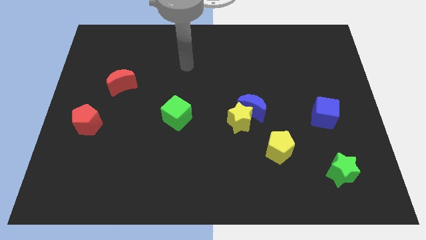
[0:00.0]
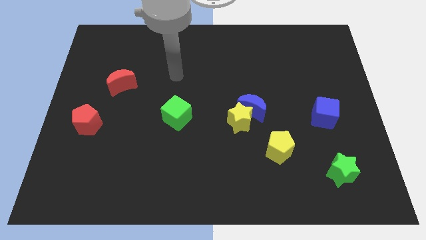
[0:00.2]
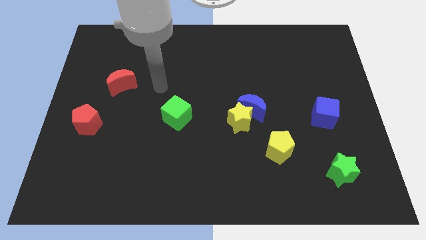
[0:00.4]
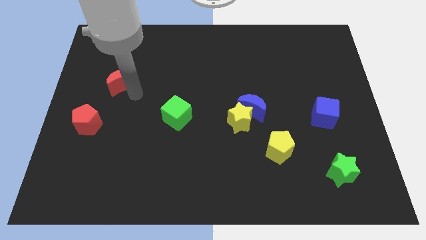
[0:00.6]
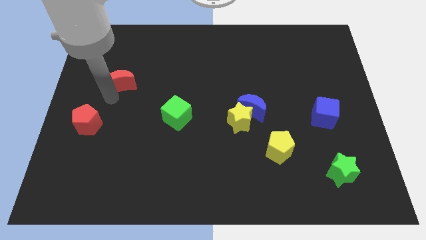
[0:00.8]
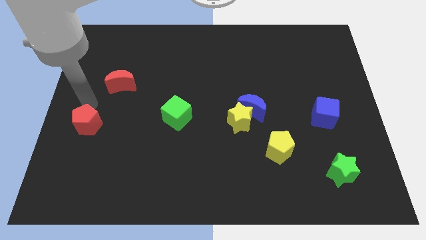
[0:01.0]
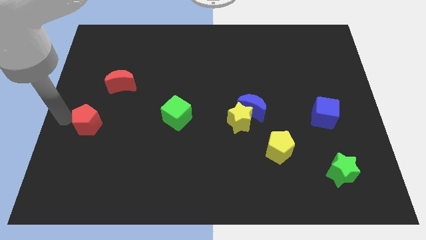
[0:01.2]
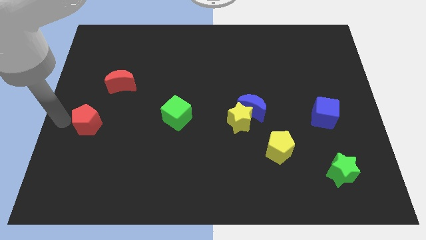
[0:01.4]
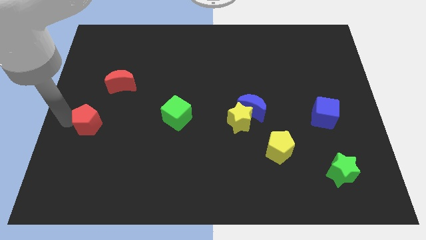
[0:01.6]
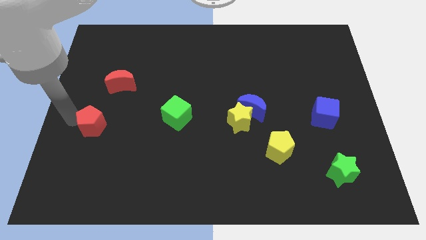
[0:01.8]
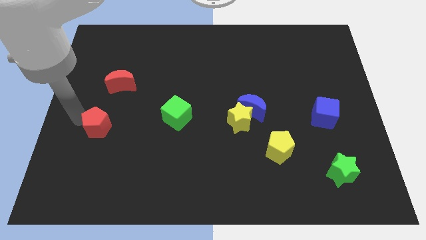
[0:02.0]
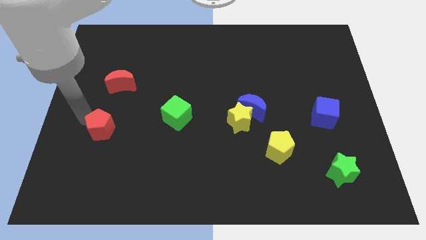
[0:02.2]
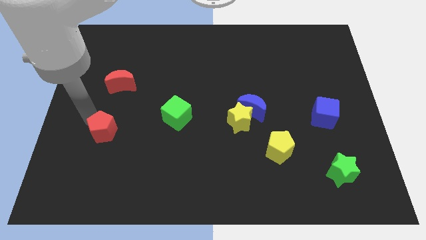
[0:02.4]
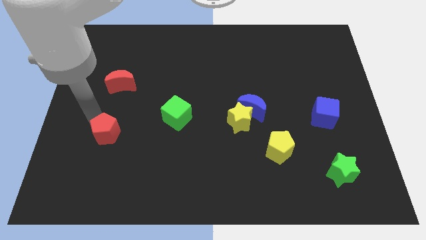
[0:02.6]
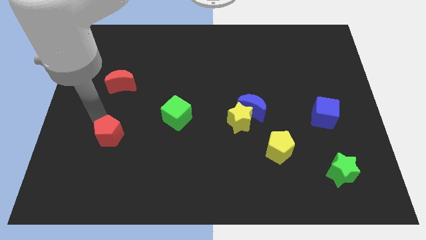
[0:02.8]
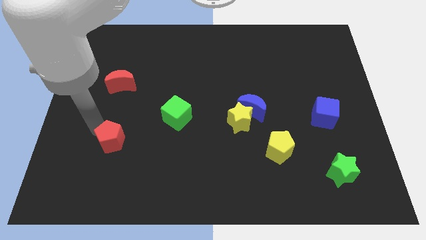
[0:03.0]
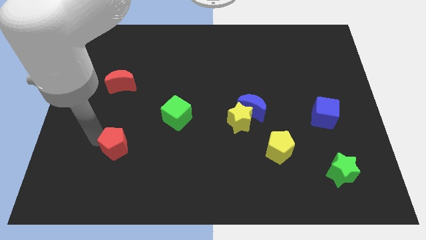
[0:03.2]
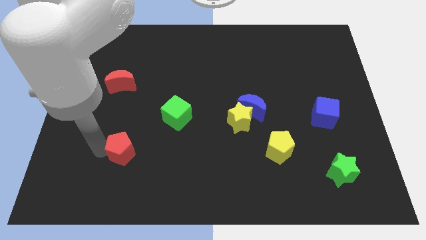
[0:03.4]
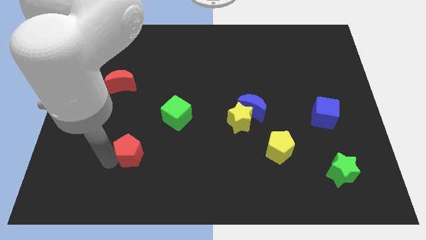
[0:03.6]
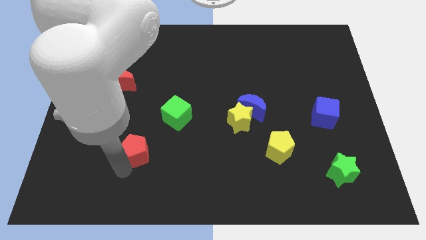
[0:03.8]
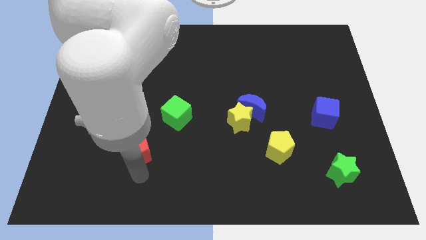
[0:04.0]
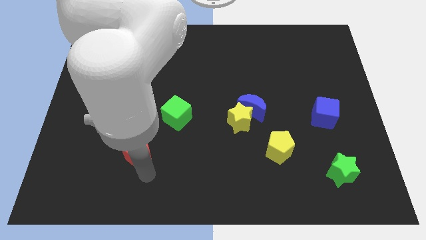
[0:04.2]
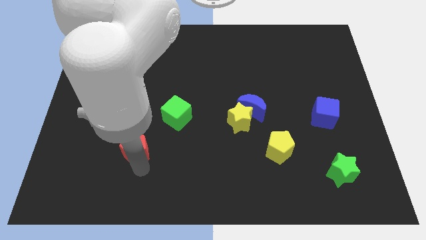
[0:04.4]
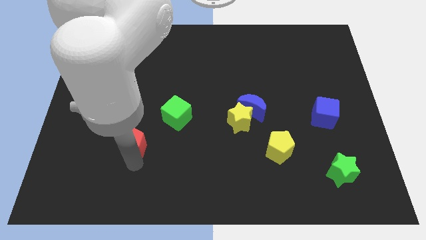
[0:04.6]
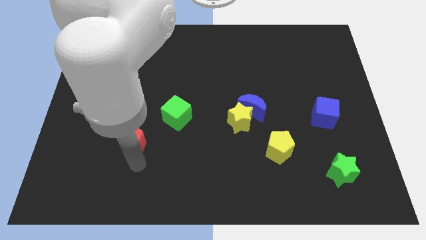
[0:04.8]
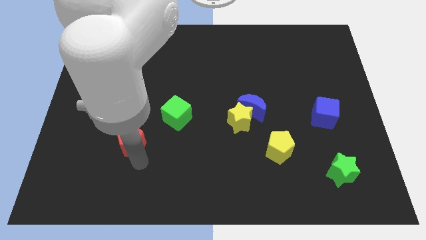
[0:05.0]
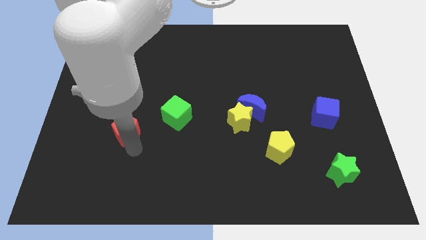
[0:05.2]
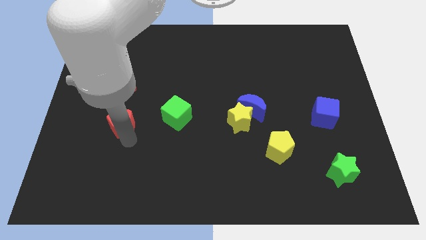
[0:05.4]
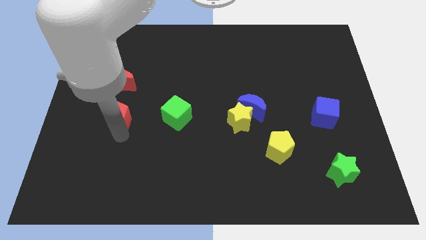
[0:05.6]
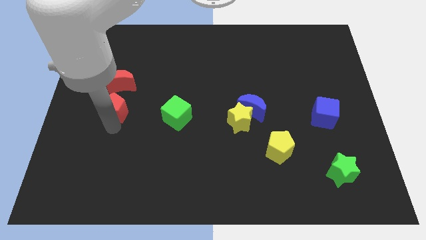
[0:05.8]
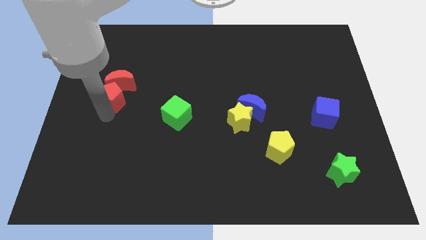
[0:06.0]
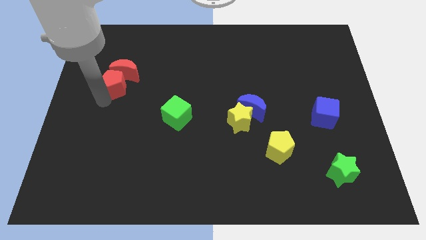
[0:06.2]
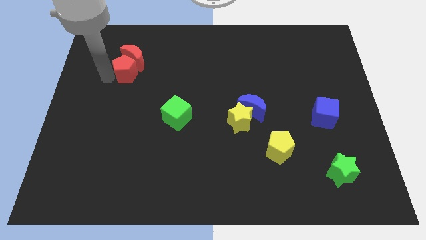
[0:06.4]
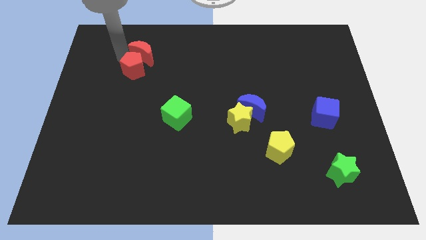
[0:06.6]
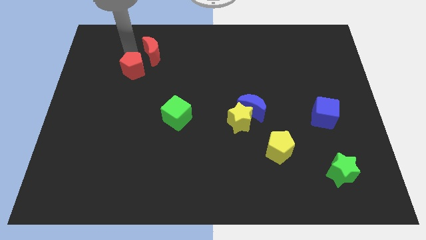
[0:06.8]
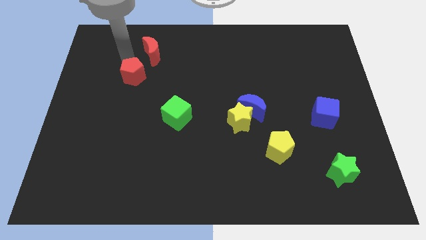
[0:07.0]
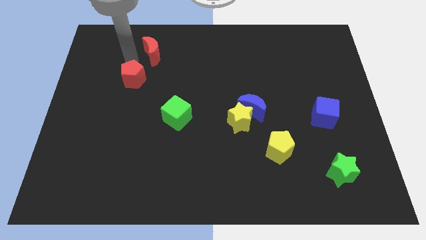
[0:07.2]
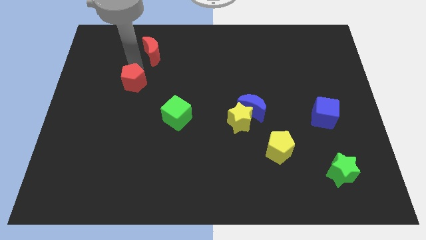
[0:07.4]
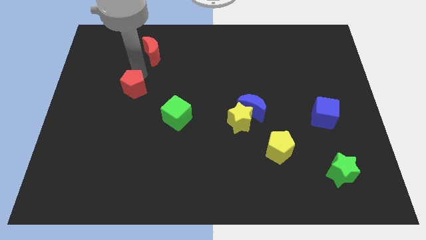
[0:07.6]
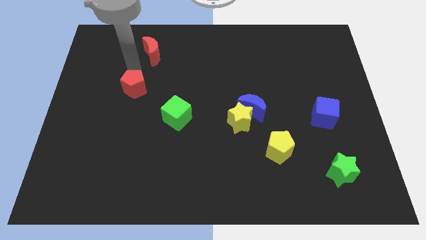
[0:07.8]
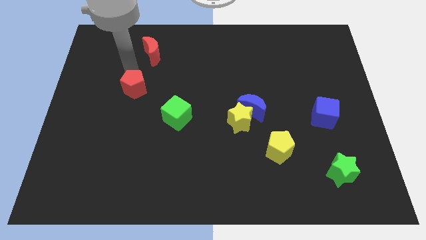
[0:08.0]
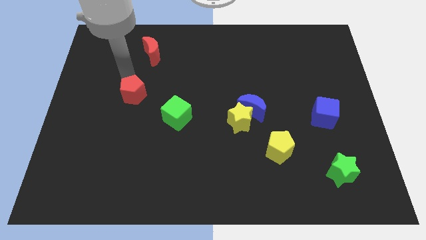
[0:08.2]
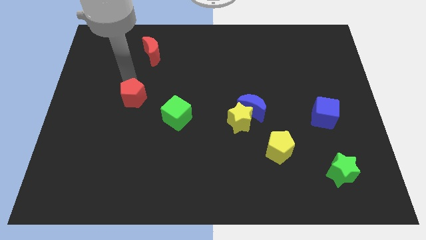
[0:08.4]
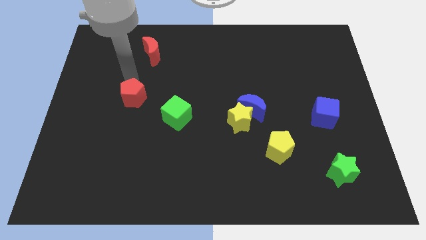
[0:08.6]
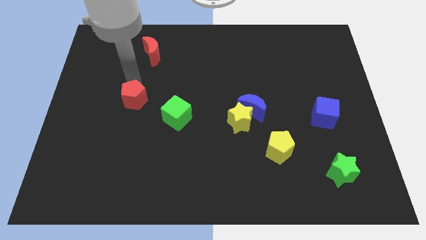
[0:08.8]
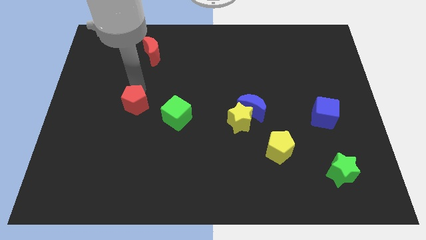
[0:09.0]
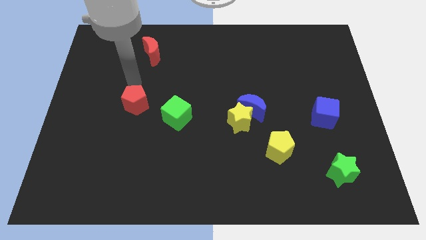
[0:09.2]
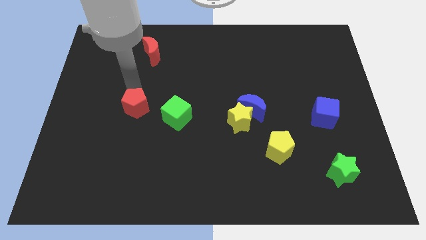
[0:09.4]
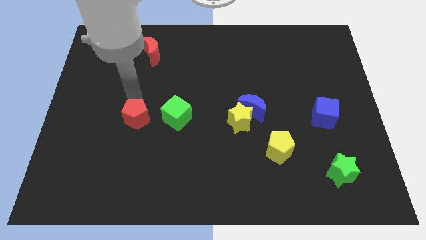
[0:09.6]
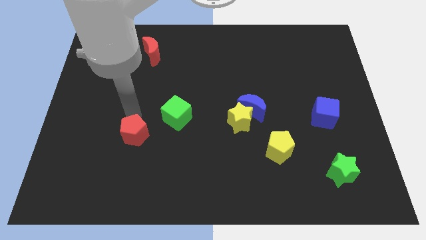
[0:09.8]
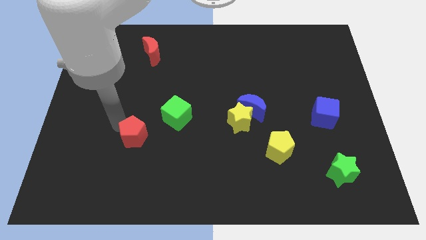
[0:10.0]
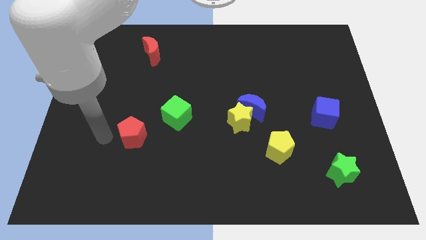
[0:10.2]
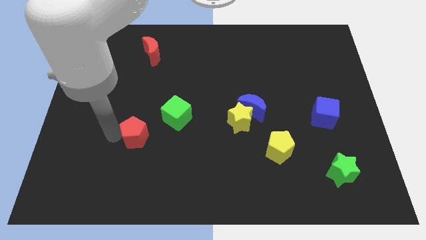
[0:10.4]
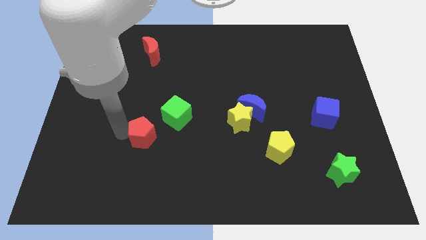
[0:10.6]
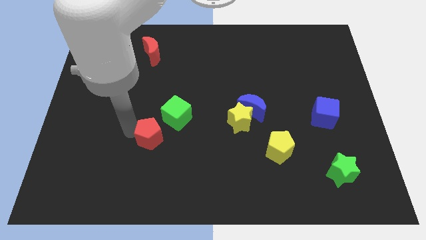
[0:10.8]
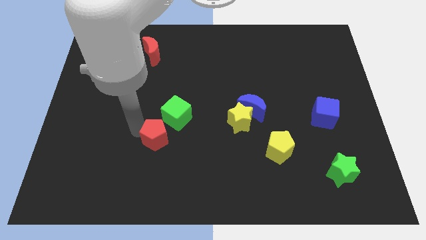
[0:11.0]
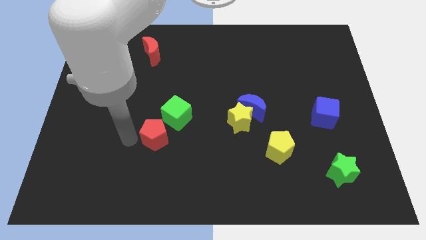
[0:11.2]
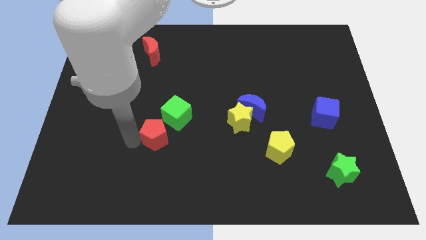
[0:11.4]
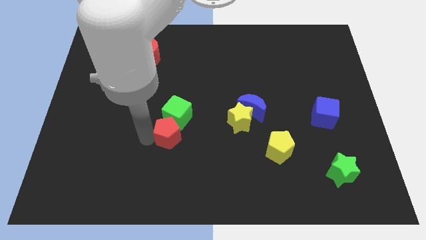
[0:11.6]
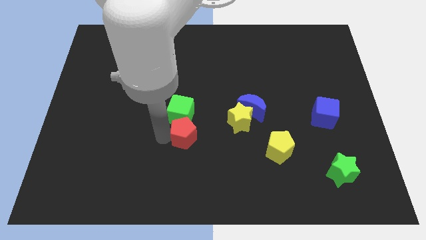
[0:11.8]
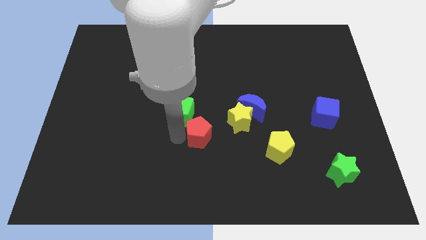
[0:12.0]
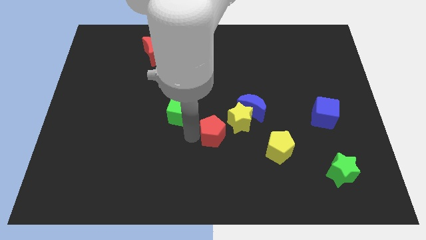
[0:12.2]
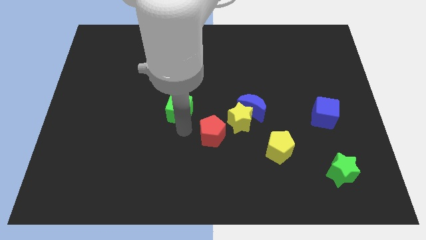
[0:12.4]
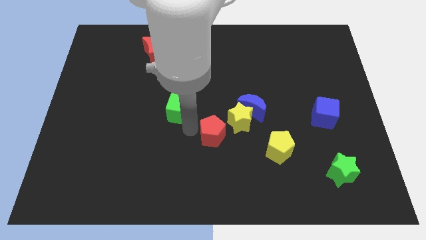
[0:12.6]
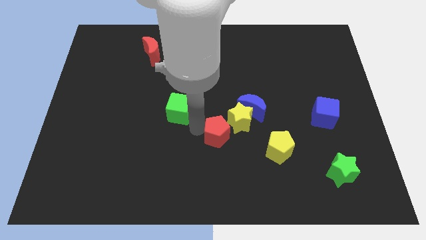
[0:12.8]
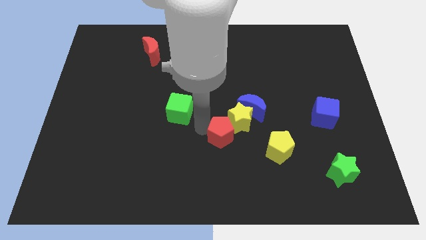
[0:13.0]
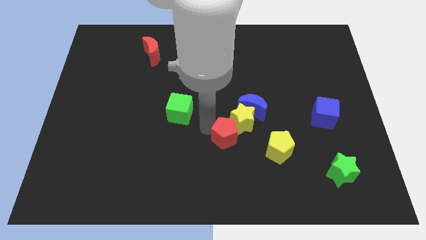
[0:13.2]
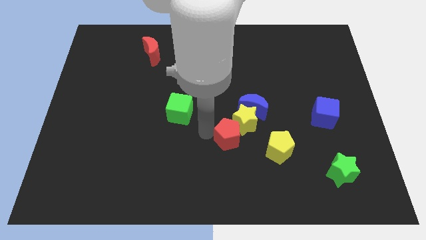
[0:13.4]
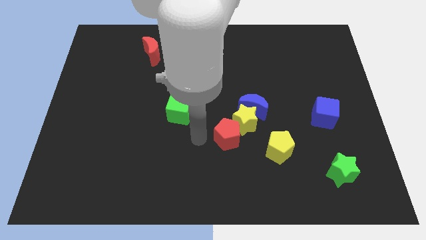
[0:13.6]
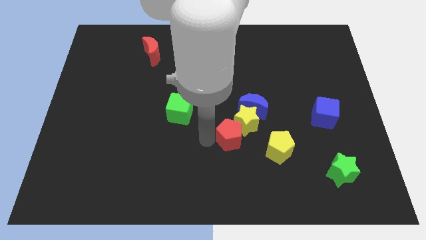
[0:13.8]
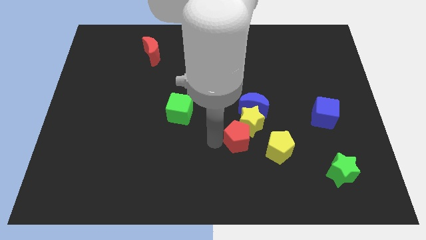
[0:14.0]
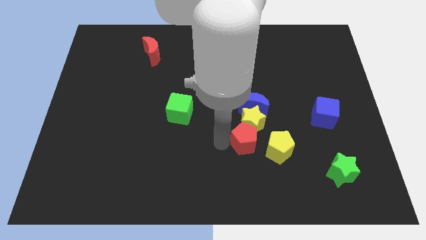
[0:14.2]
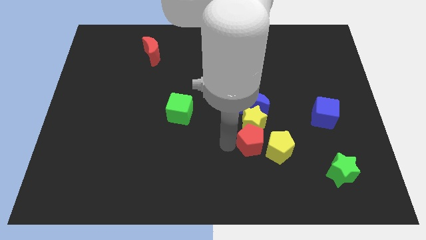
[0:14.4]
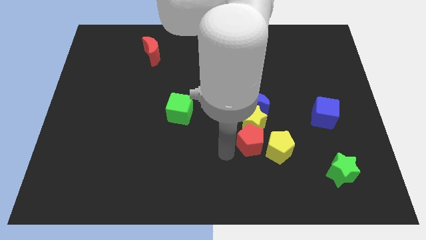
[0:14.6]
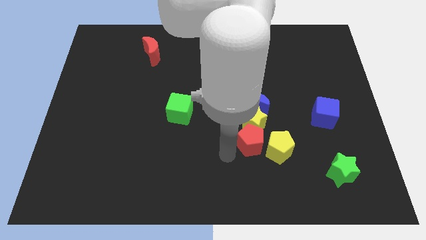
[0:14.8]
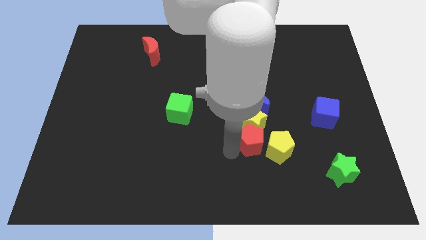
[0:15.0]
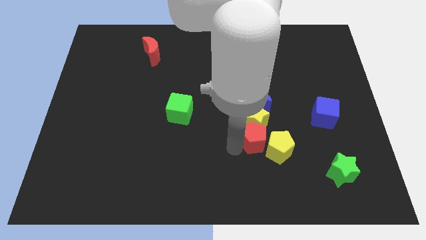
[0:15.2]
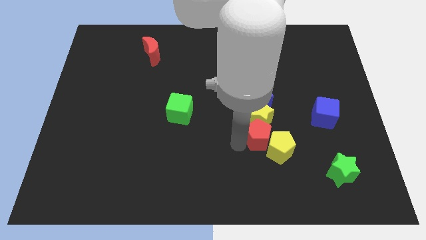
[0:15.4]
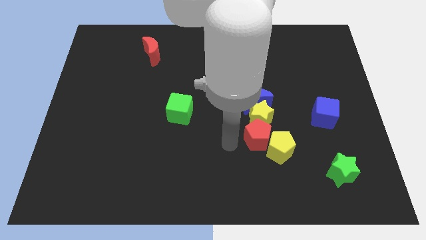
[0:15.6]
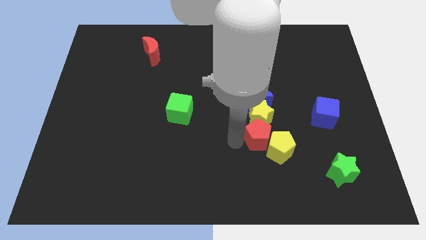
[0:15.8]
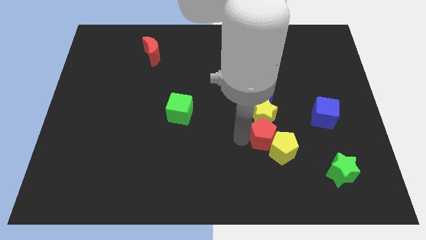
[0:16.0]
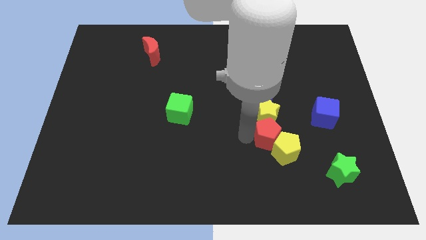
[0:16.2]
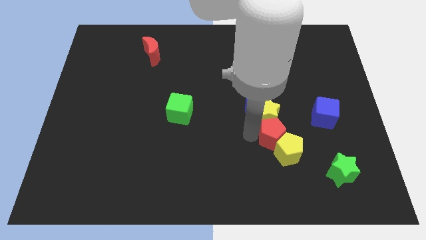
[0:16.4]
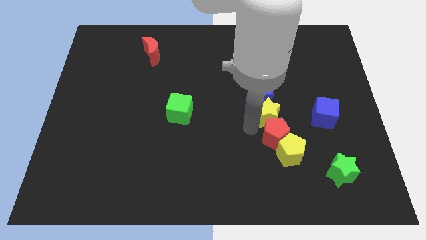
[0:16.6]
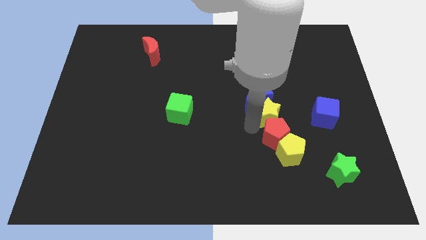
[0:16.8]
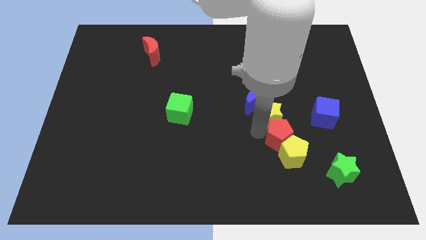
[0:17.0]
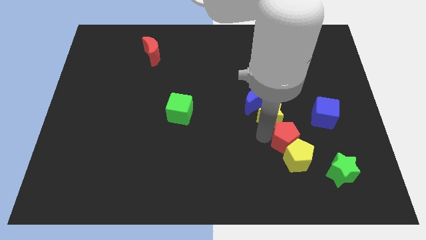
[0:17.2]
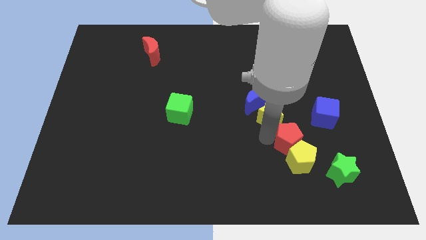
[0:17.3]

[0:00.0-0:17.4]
slide the red pentagon diagonally up and to the left of the green star
